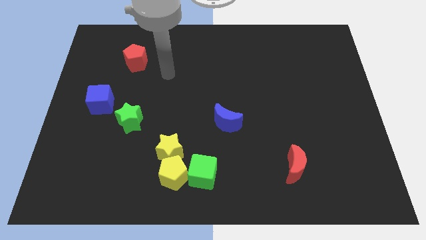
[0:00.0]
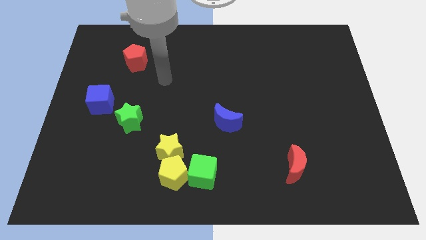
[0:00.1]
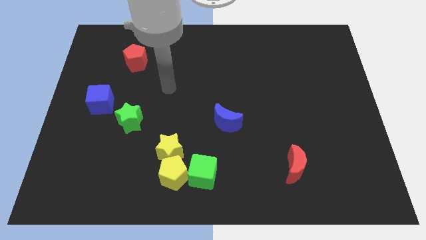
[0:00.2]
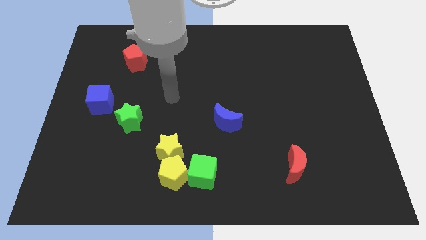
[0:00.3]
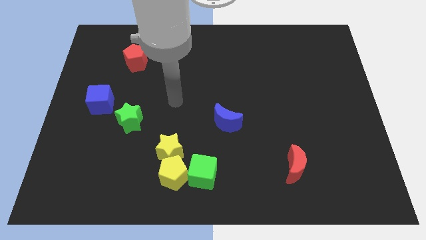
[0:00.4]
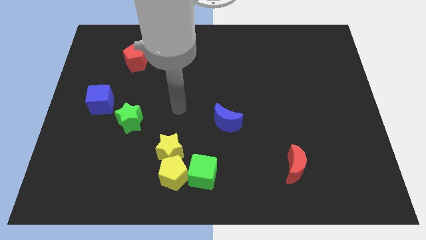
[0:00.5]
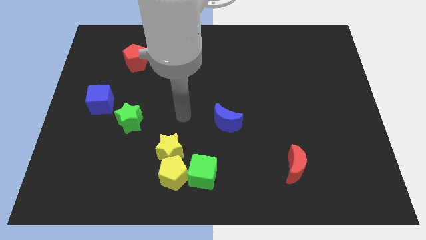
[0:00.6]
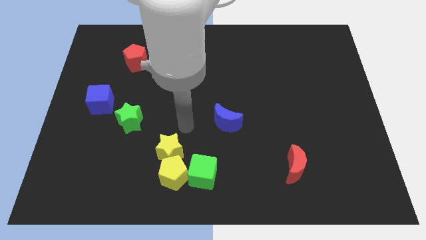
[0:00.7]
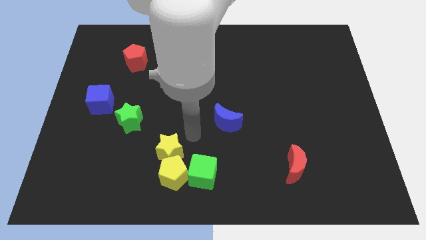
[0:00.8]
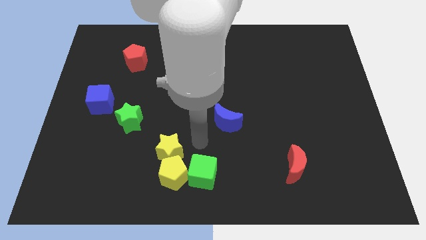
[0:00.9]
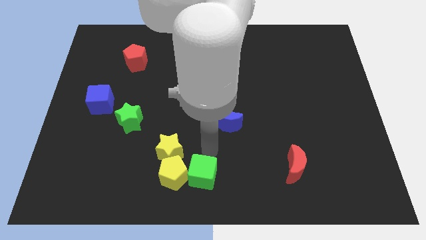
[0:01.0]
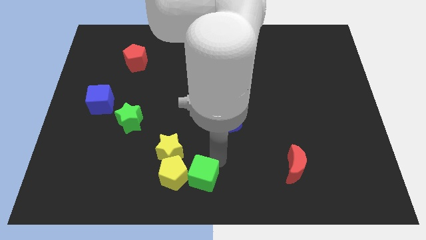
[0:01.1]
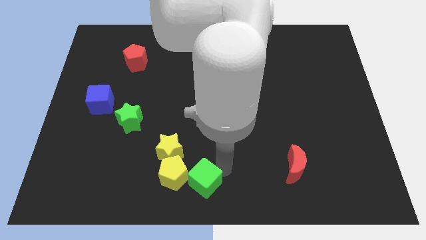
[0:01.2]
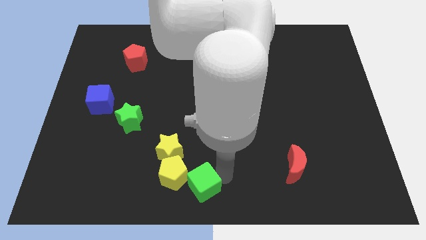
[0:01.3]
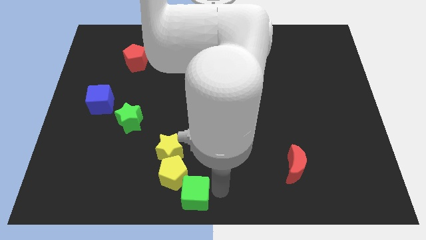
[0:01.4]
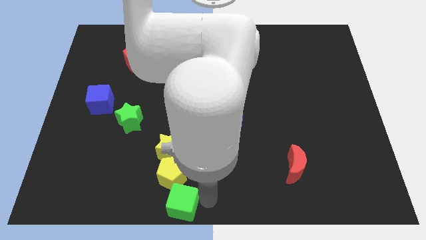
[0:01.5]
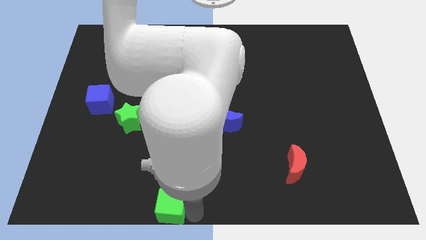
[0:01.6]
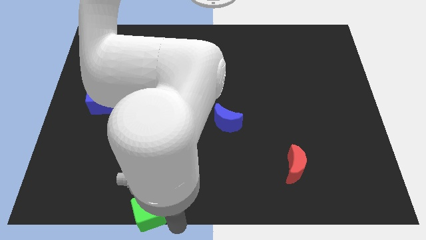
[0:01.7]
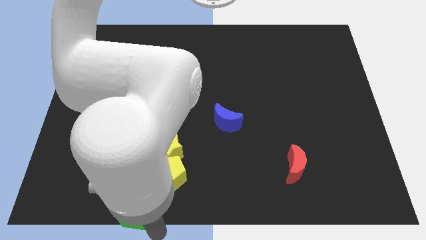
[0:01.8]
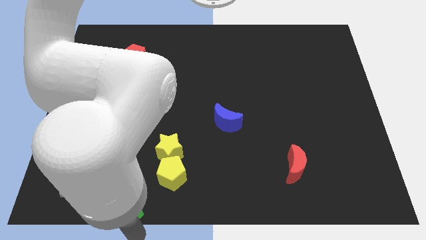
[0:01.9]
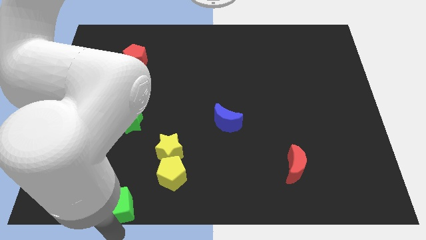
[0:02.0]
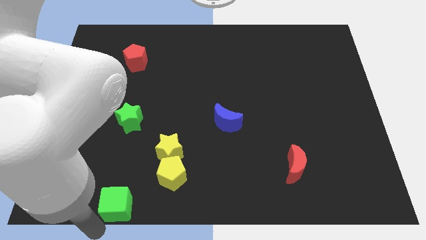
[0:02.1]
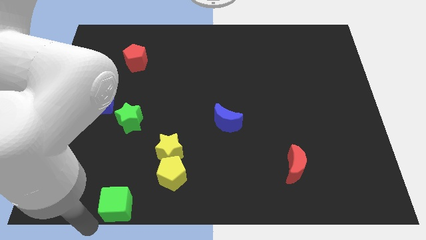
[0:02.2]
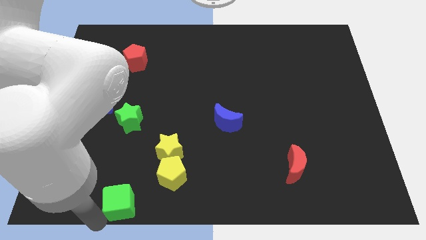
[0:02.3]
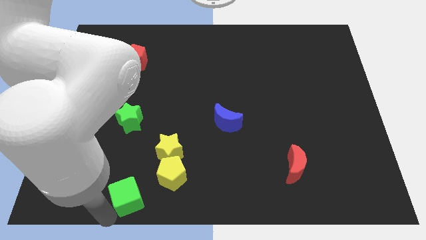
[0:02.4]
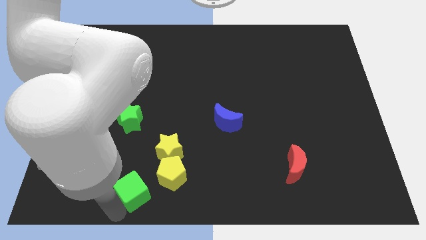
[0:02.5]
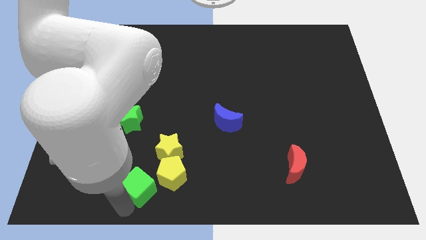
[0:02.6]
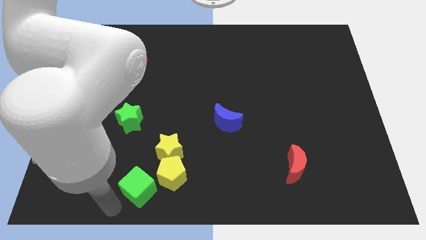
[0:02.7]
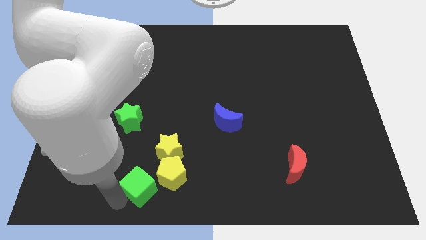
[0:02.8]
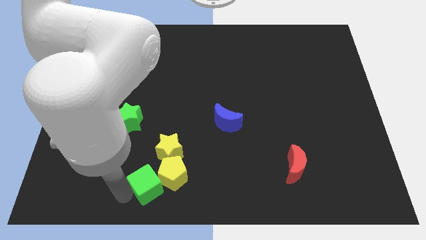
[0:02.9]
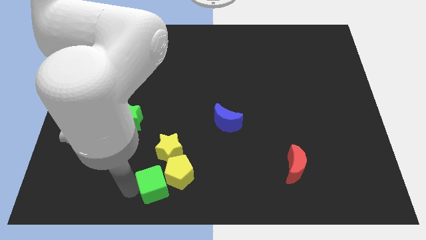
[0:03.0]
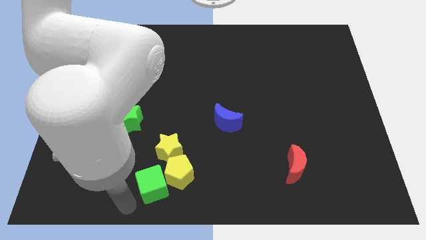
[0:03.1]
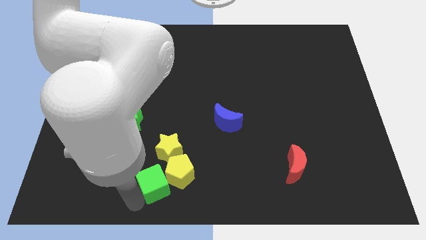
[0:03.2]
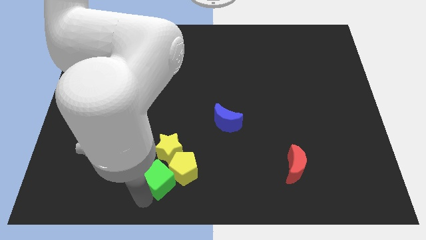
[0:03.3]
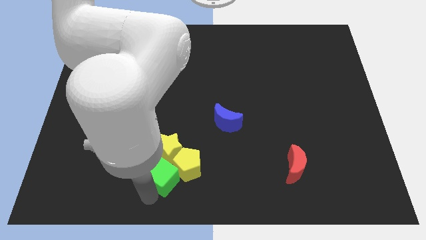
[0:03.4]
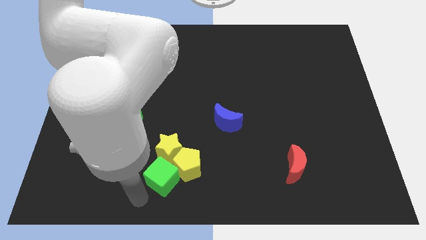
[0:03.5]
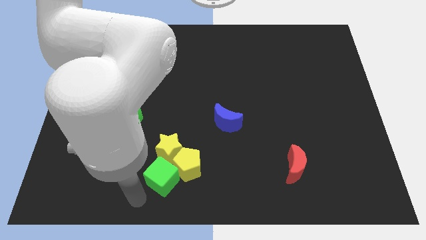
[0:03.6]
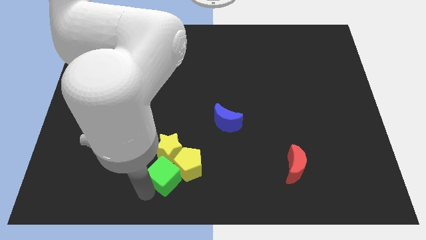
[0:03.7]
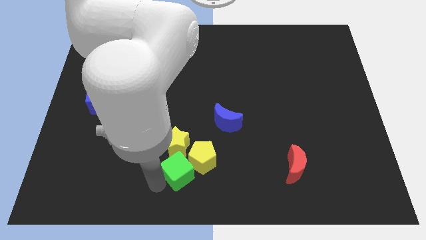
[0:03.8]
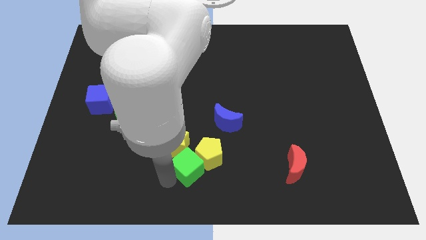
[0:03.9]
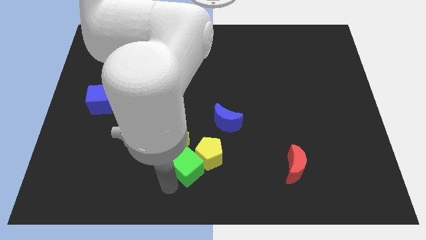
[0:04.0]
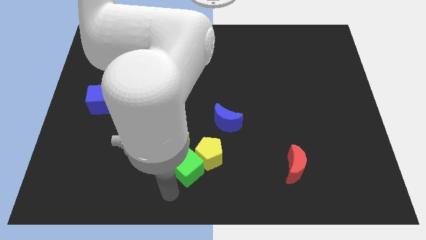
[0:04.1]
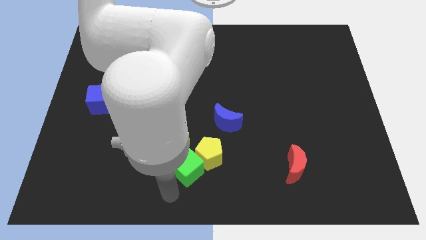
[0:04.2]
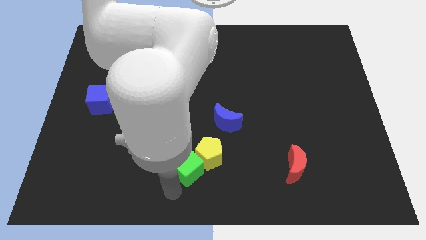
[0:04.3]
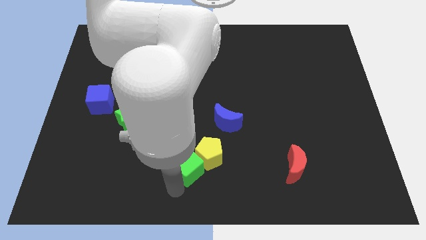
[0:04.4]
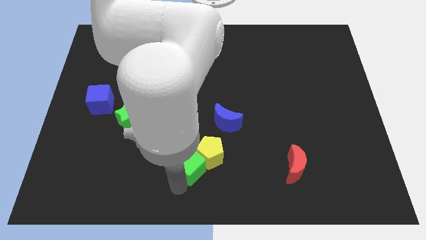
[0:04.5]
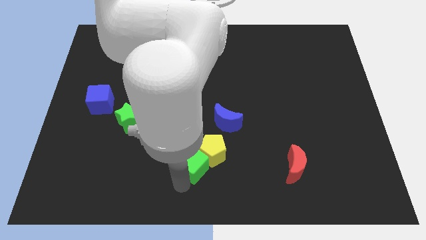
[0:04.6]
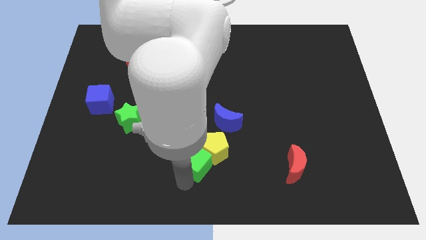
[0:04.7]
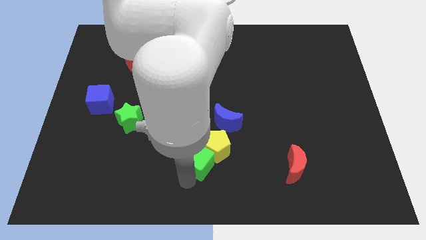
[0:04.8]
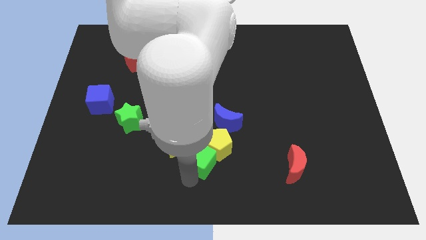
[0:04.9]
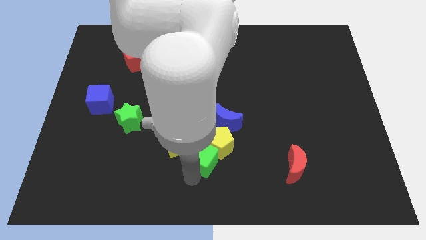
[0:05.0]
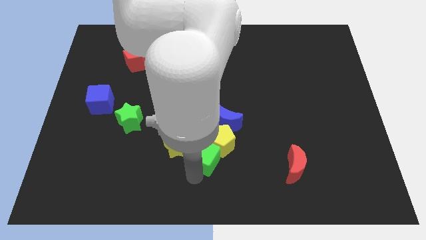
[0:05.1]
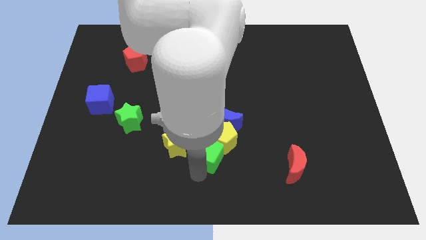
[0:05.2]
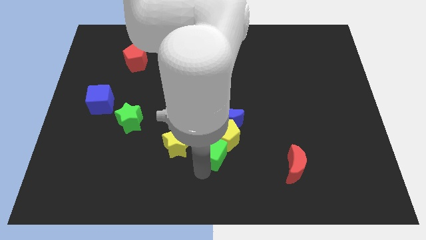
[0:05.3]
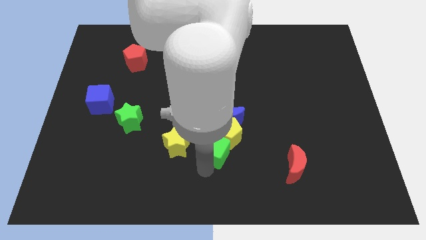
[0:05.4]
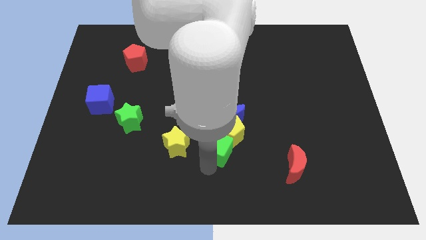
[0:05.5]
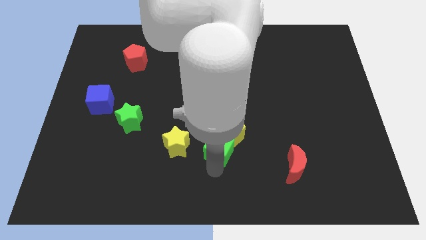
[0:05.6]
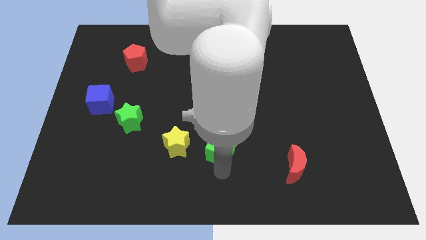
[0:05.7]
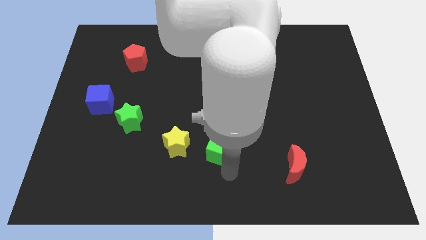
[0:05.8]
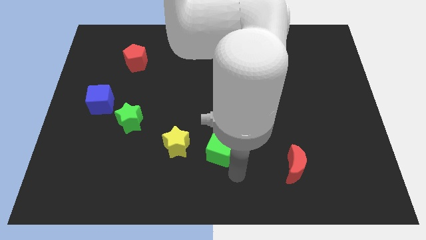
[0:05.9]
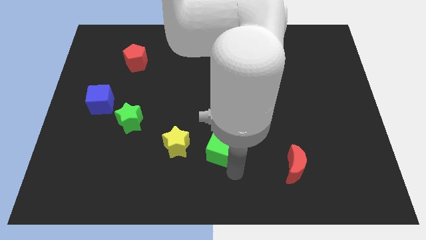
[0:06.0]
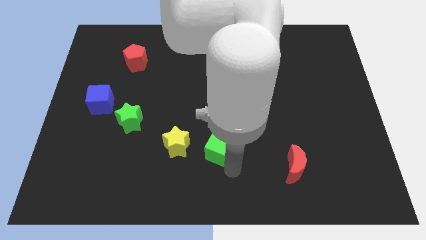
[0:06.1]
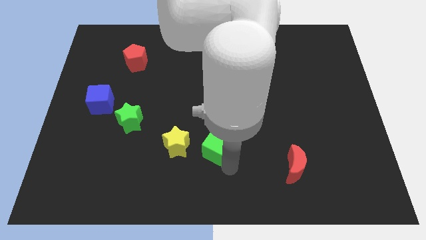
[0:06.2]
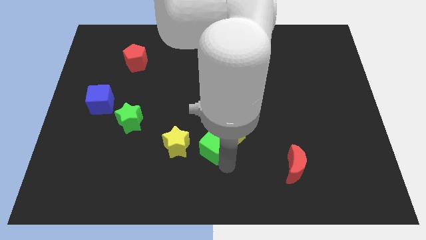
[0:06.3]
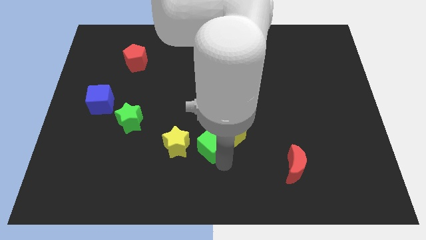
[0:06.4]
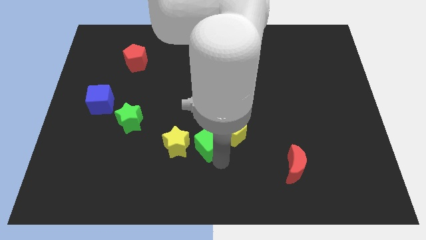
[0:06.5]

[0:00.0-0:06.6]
slide the green cube a little bit upwards

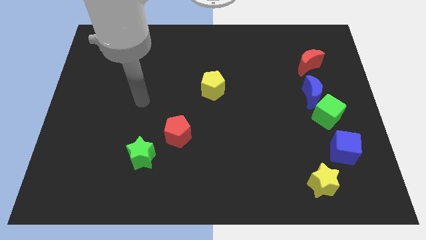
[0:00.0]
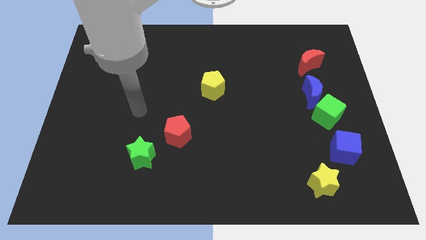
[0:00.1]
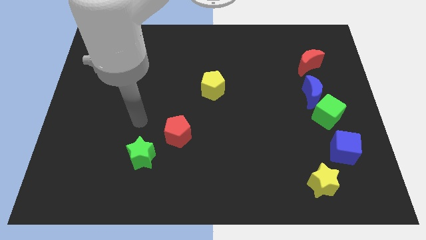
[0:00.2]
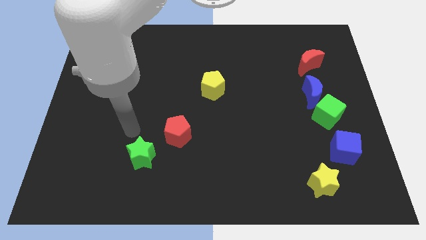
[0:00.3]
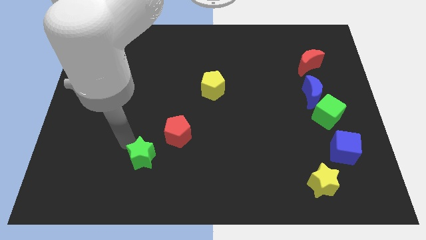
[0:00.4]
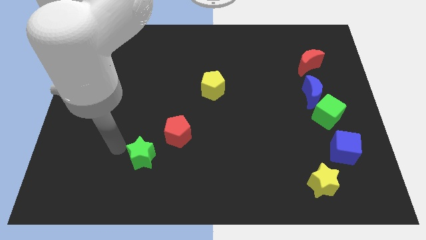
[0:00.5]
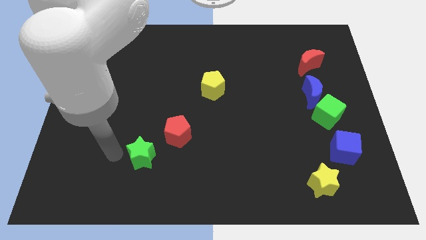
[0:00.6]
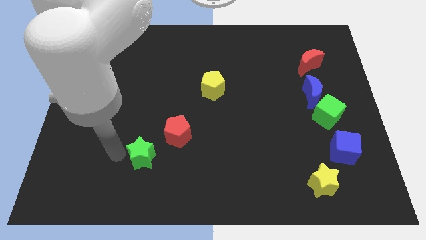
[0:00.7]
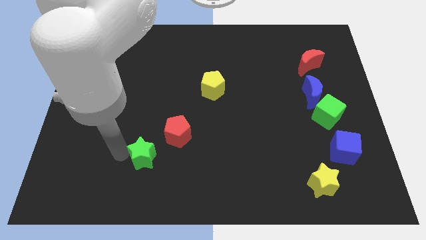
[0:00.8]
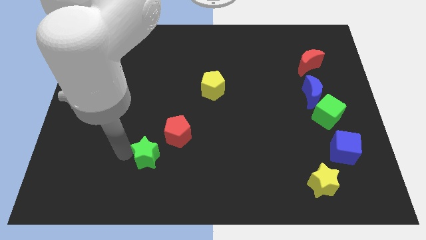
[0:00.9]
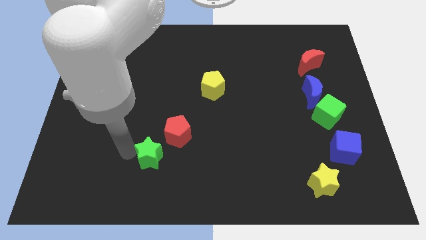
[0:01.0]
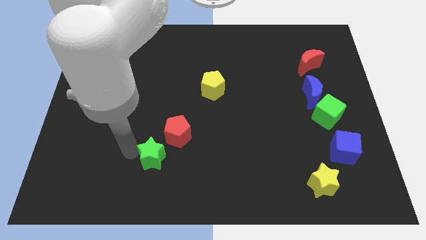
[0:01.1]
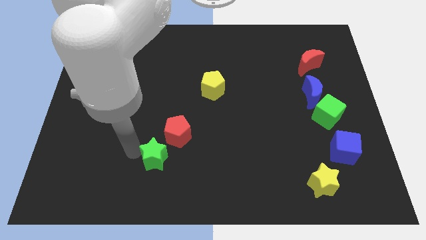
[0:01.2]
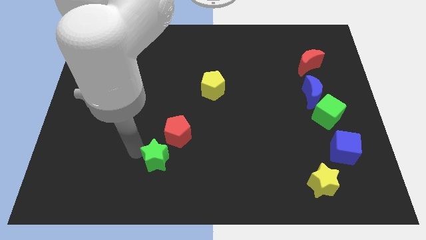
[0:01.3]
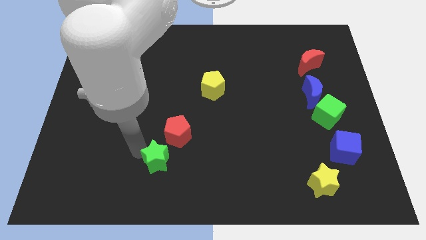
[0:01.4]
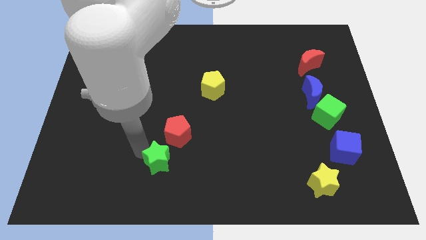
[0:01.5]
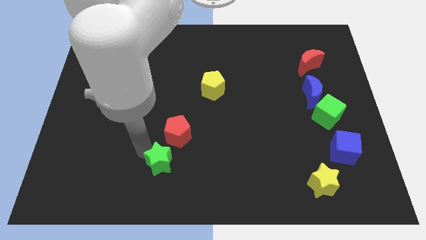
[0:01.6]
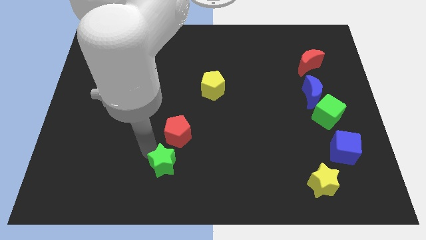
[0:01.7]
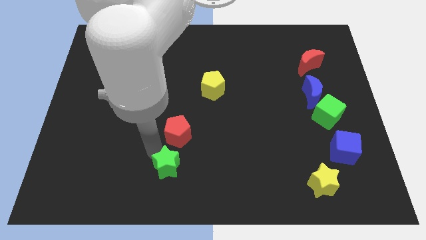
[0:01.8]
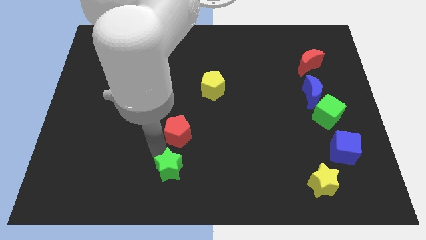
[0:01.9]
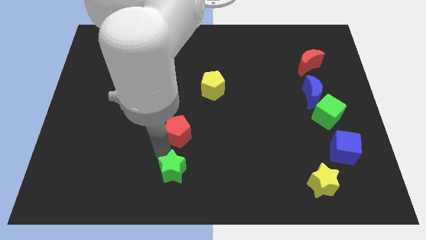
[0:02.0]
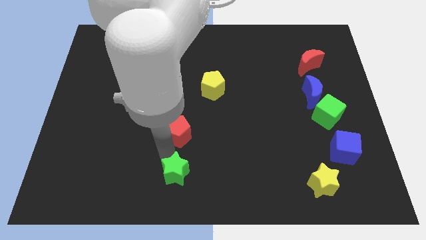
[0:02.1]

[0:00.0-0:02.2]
move the green star a bit right
